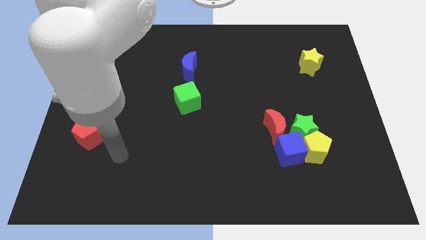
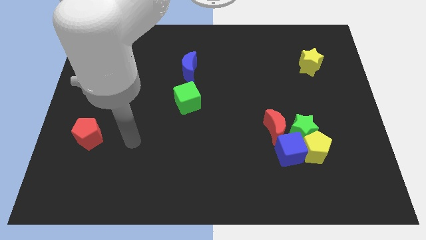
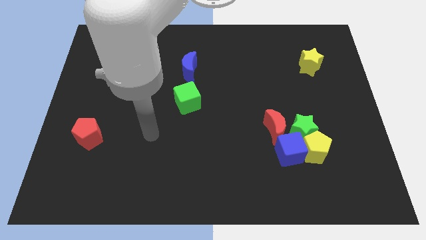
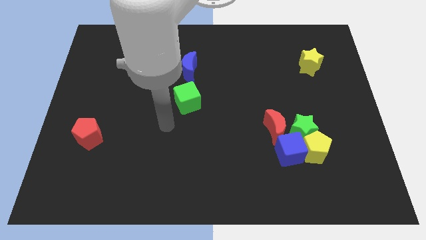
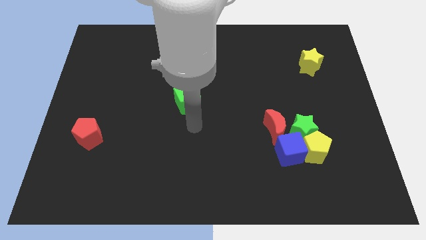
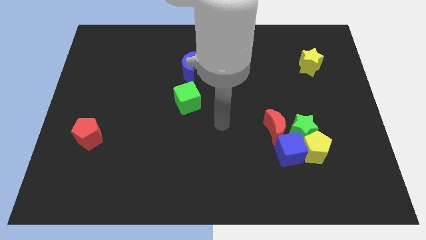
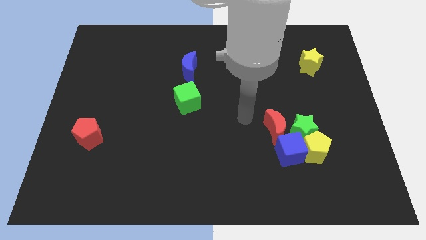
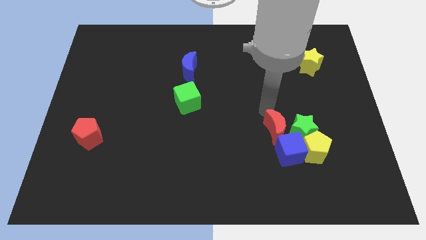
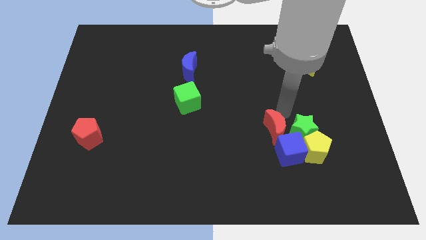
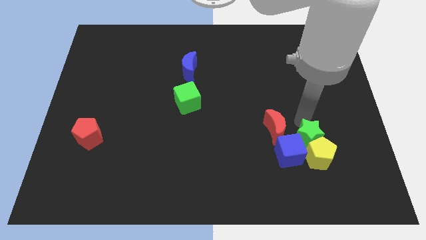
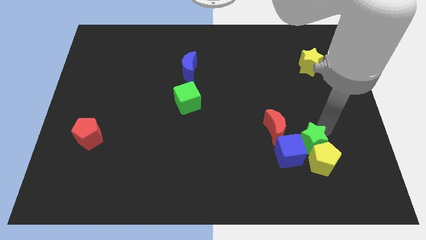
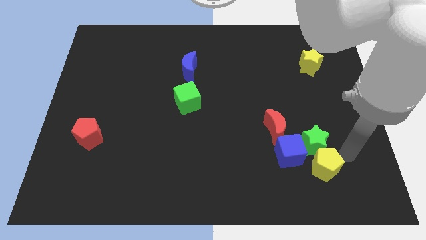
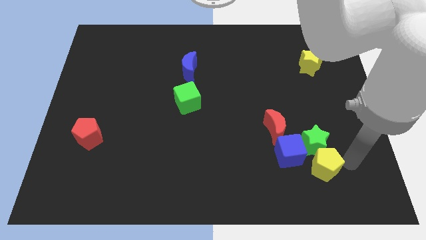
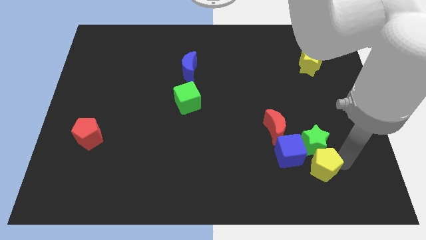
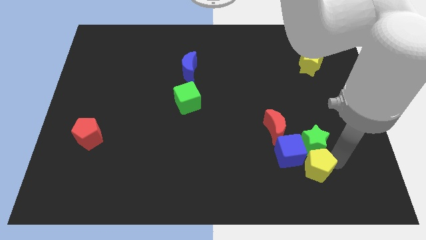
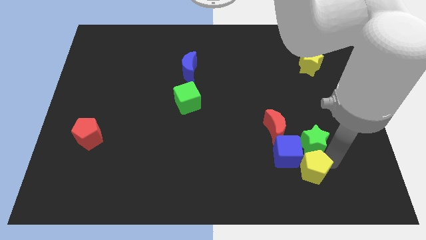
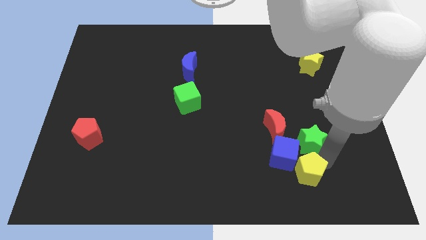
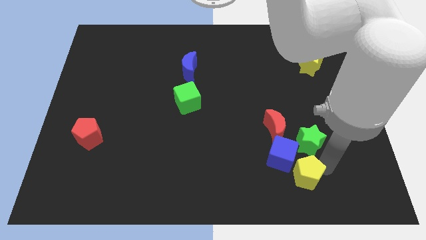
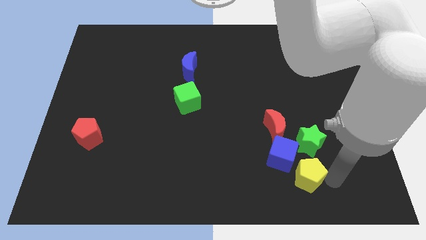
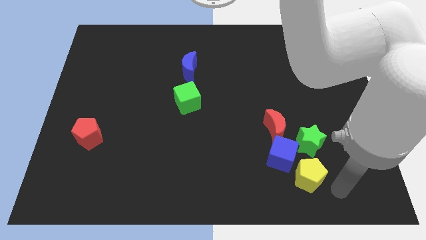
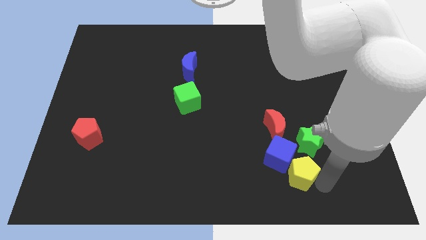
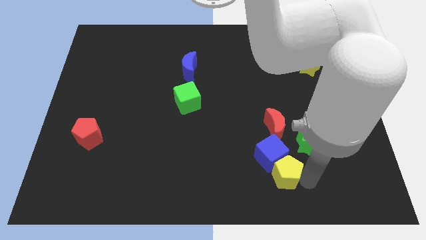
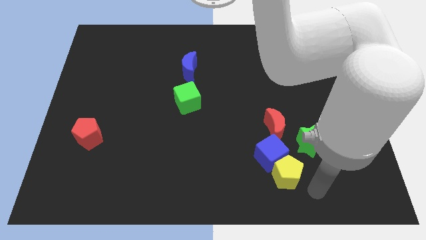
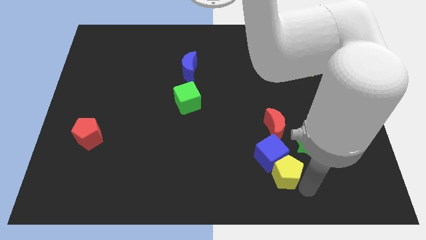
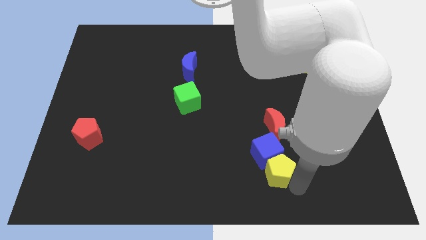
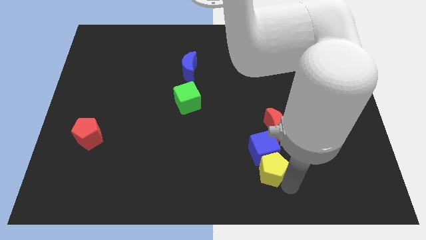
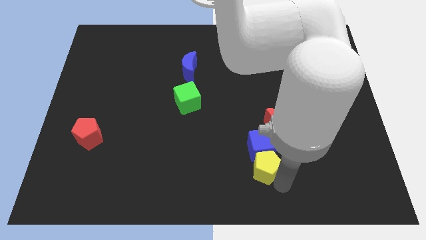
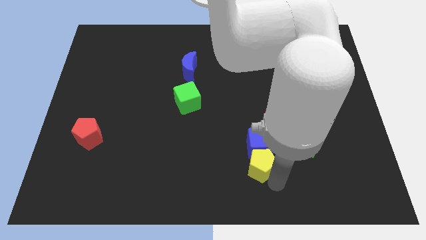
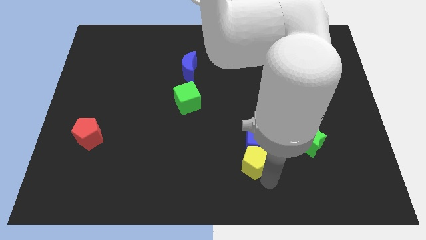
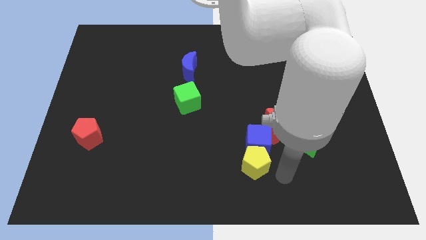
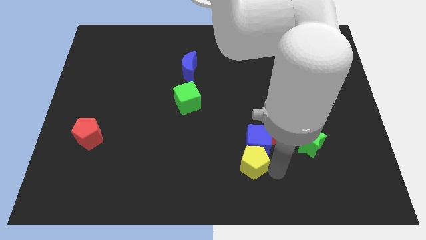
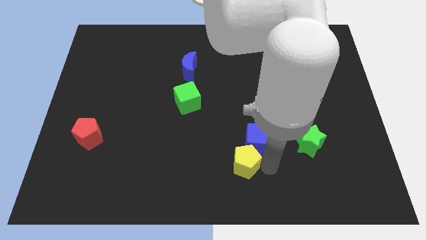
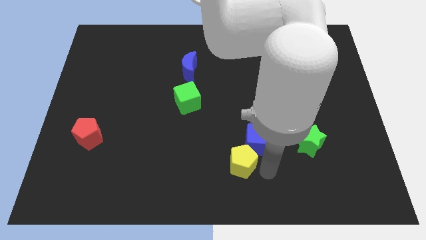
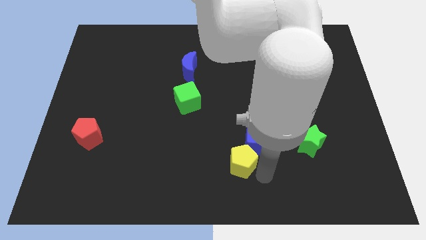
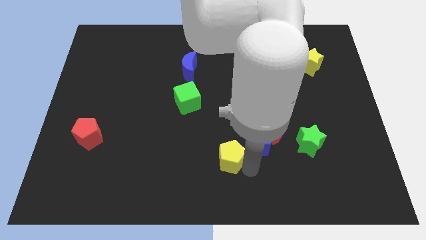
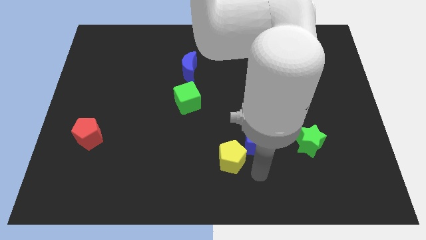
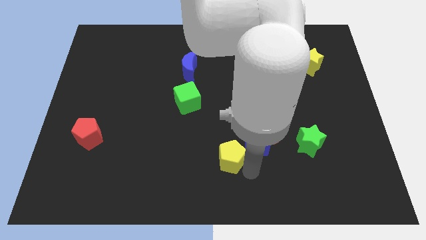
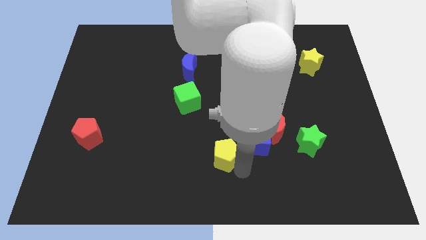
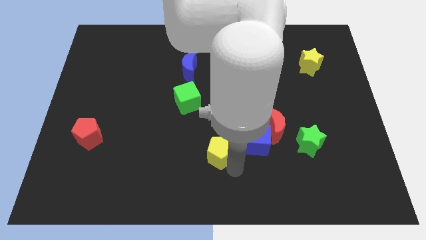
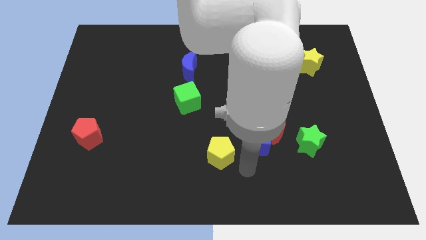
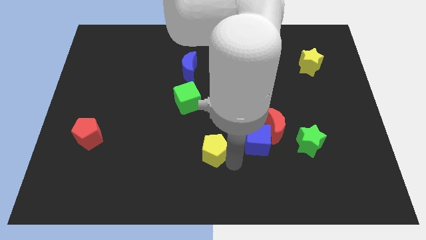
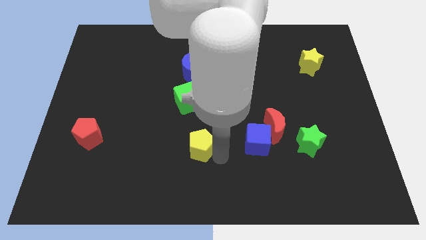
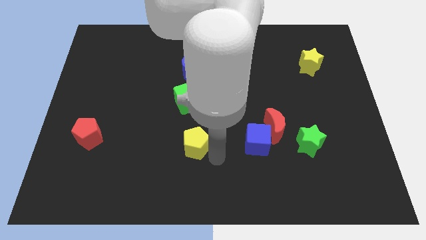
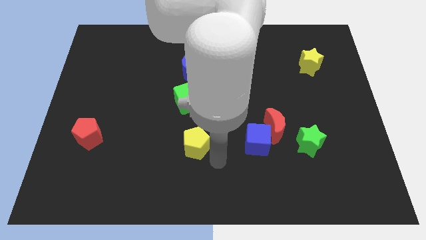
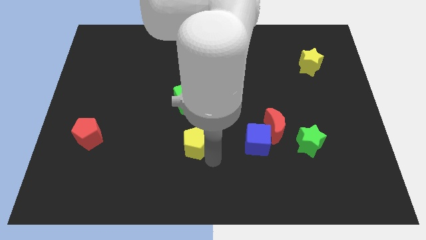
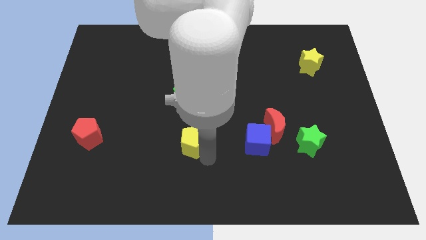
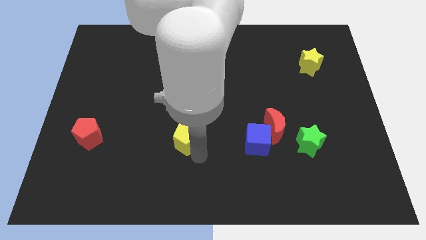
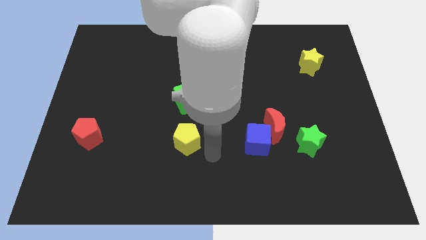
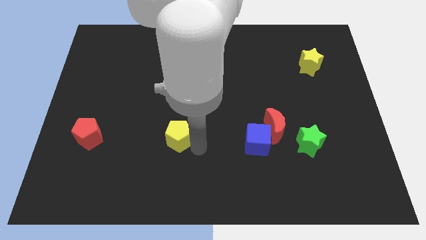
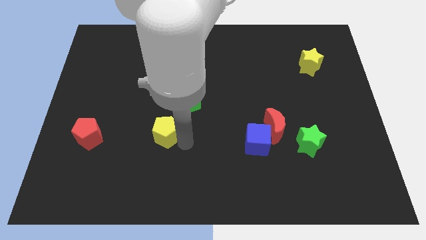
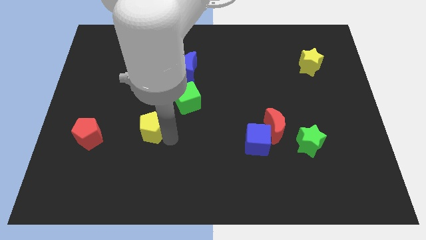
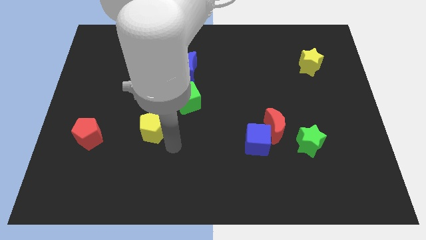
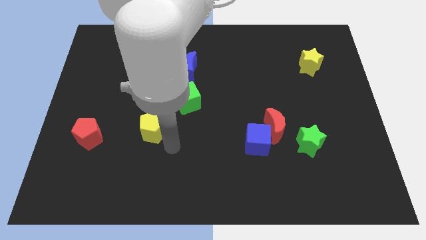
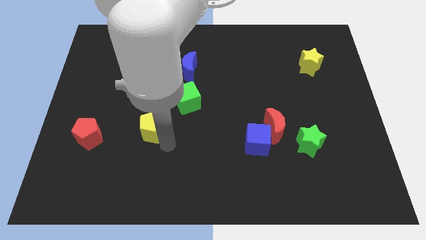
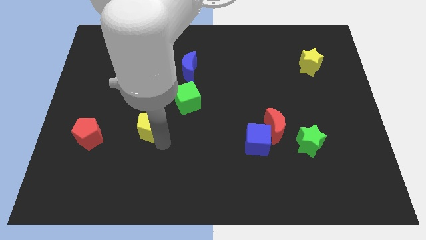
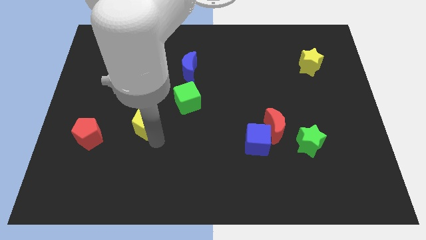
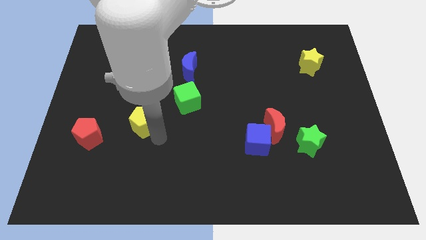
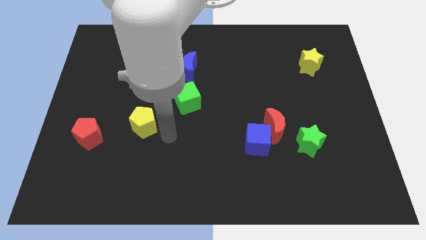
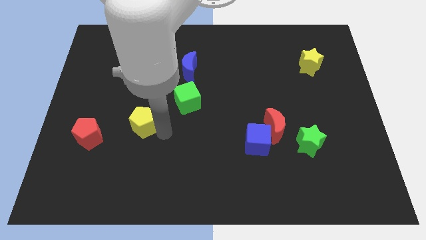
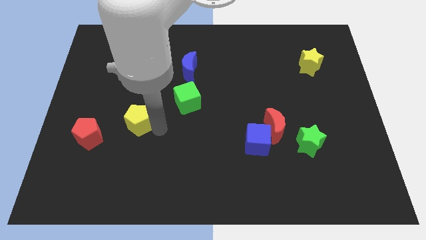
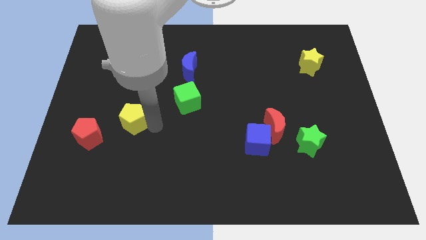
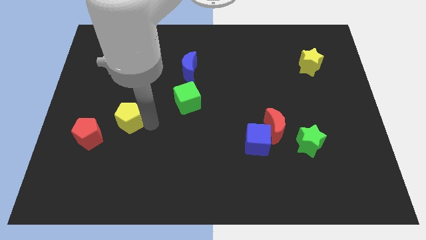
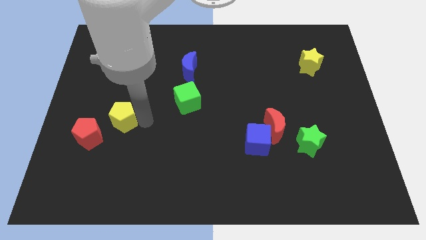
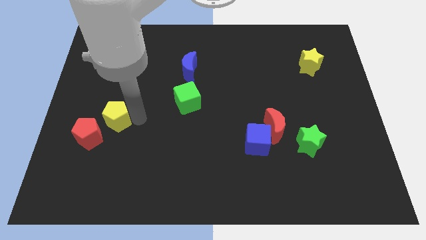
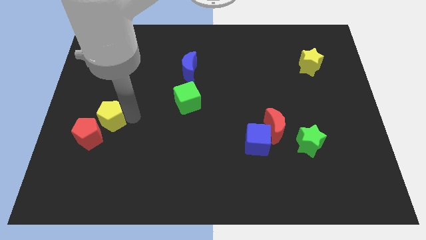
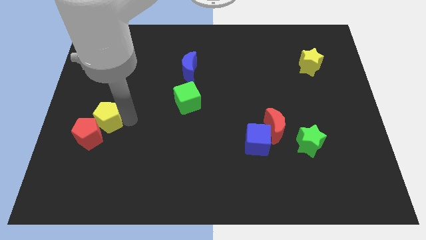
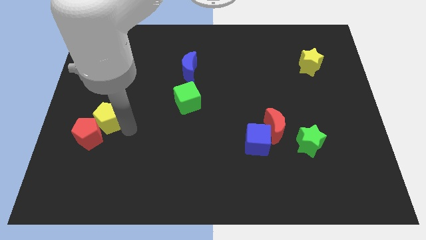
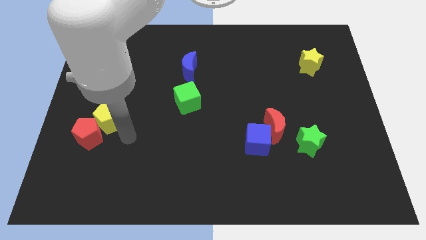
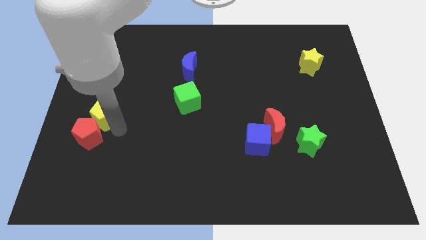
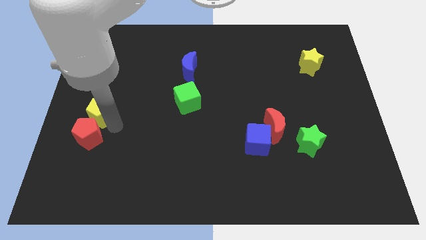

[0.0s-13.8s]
push the yellow pentagon to the left side of the board
